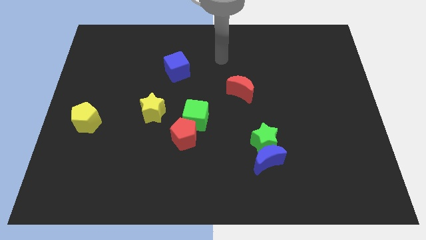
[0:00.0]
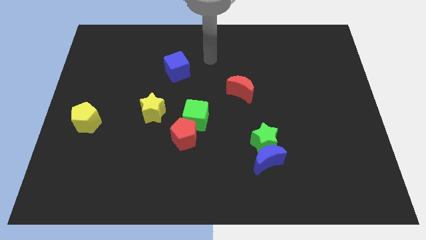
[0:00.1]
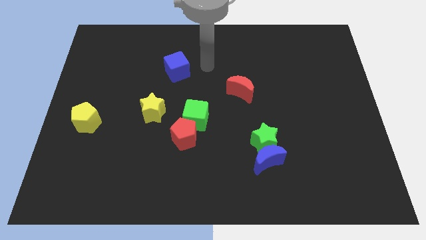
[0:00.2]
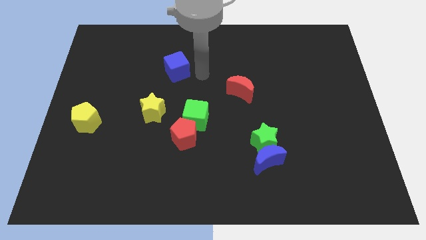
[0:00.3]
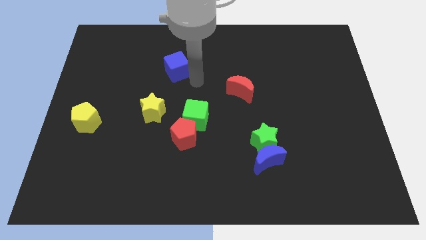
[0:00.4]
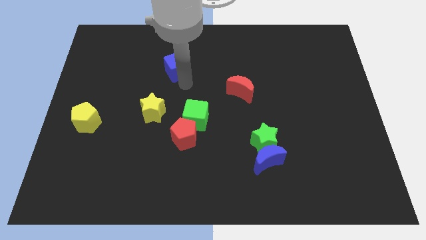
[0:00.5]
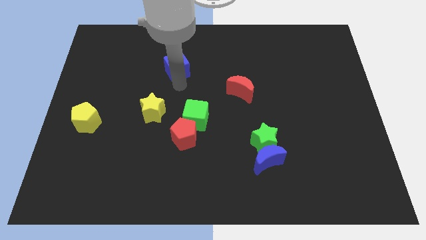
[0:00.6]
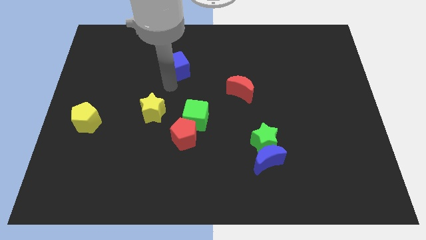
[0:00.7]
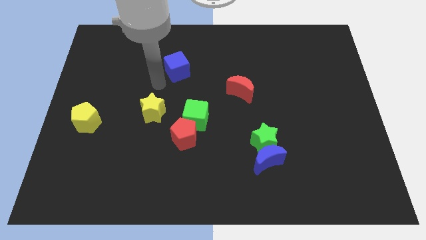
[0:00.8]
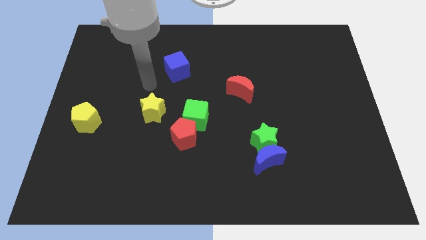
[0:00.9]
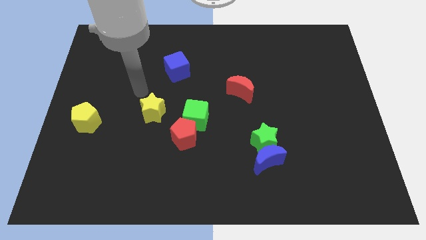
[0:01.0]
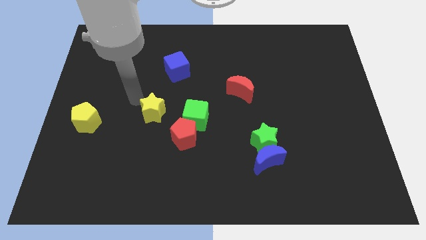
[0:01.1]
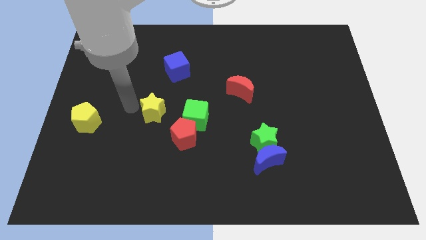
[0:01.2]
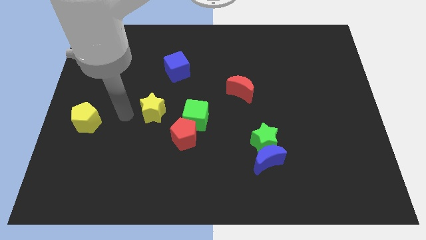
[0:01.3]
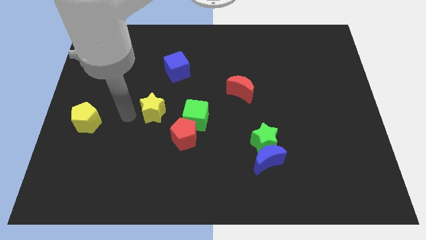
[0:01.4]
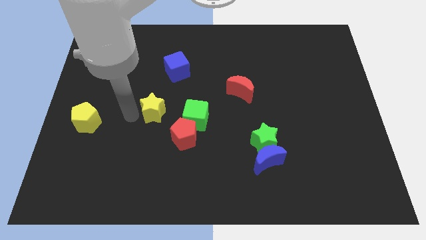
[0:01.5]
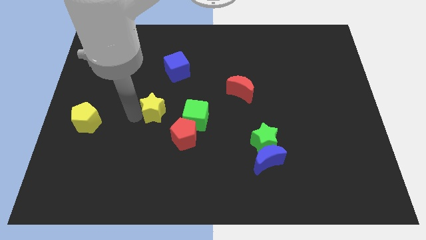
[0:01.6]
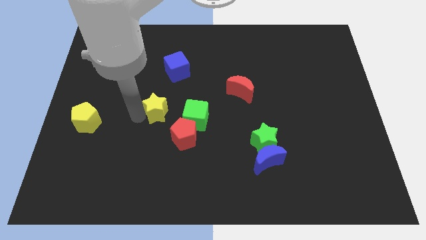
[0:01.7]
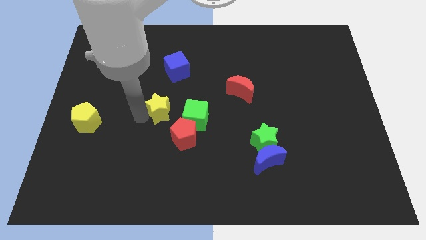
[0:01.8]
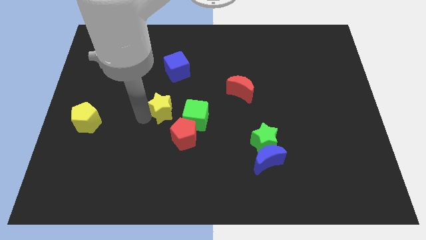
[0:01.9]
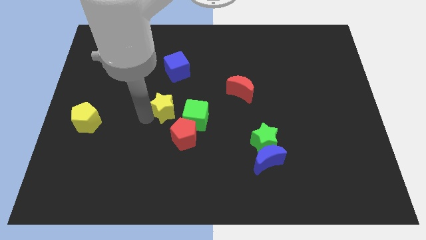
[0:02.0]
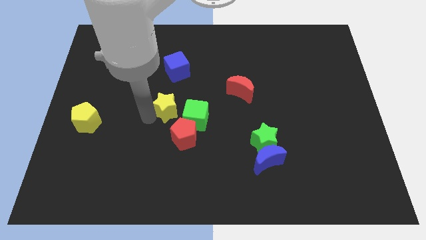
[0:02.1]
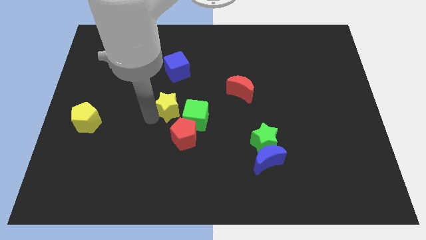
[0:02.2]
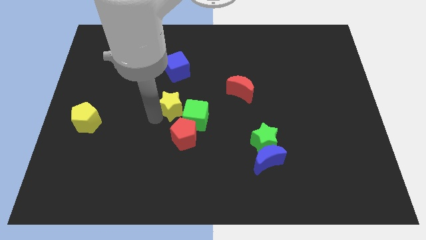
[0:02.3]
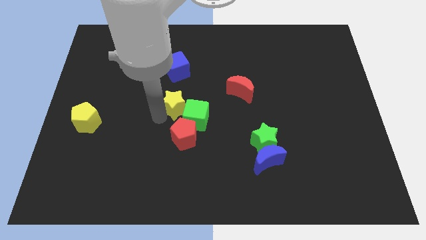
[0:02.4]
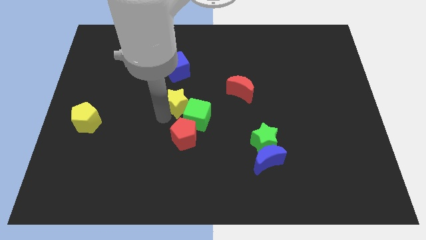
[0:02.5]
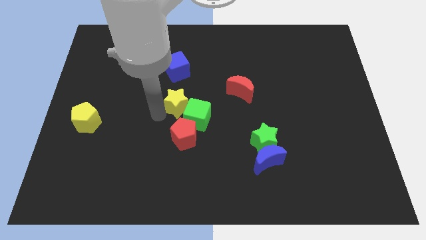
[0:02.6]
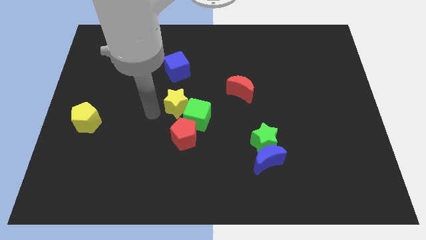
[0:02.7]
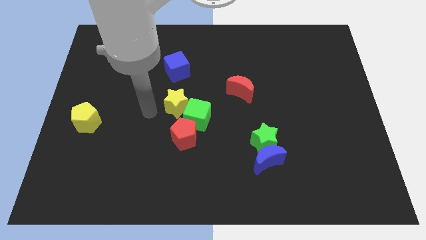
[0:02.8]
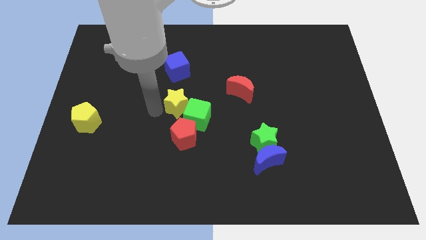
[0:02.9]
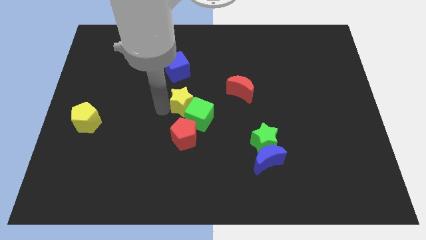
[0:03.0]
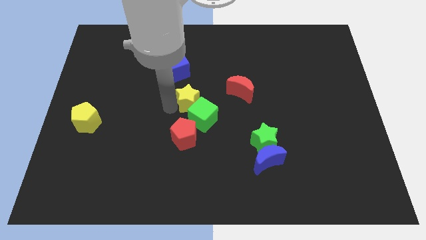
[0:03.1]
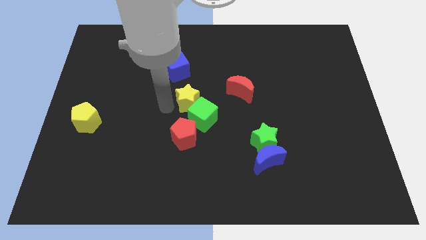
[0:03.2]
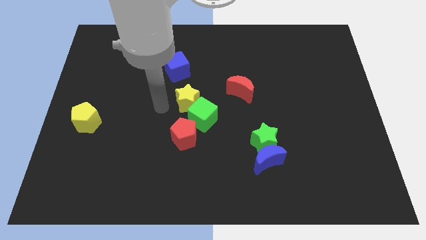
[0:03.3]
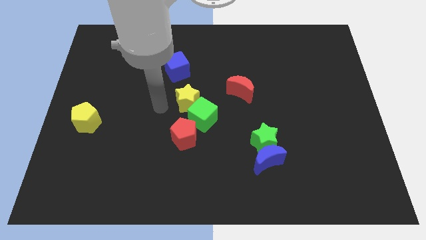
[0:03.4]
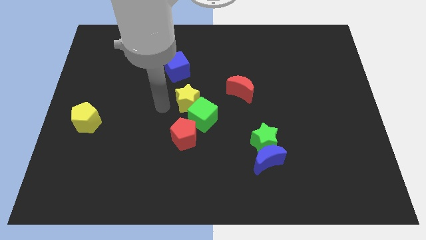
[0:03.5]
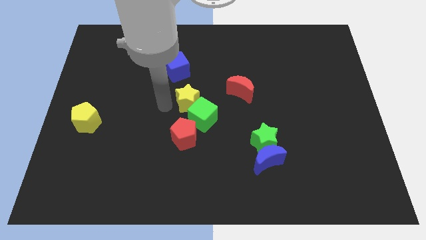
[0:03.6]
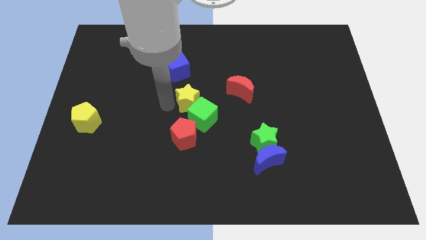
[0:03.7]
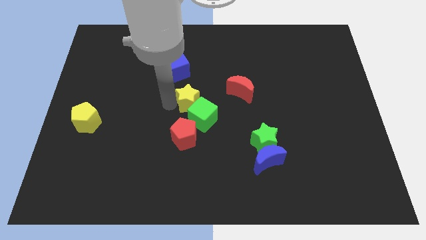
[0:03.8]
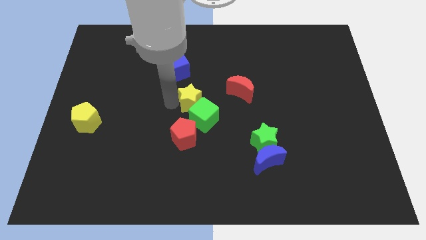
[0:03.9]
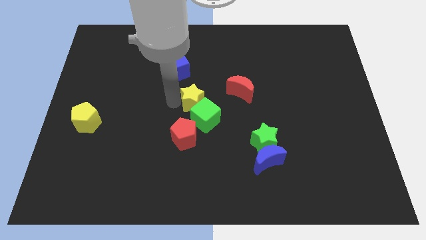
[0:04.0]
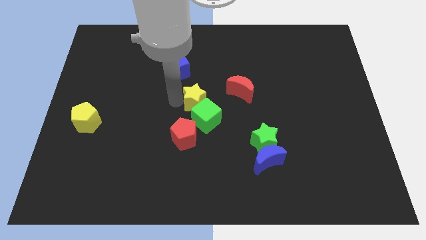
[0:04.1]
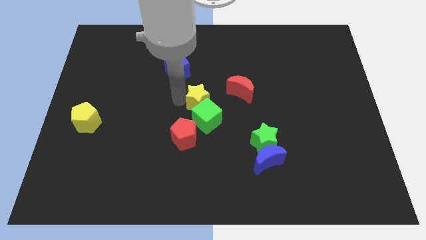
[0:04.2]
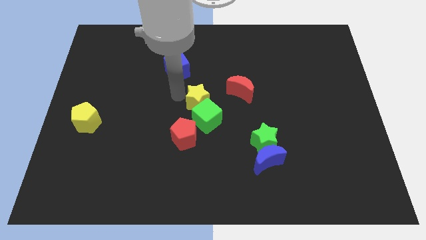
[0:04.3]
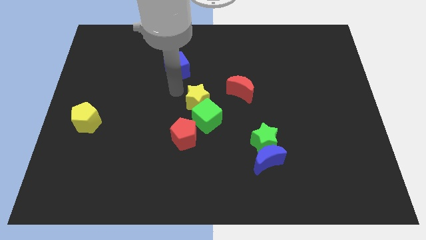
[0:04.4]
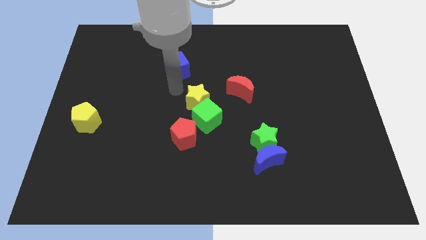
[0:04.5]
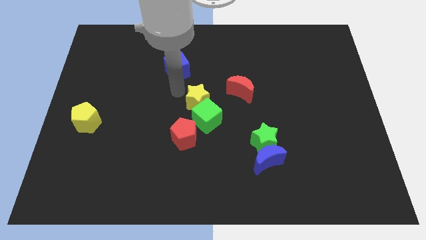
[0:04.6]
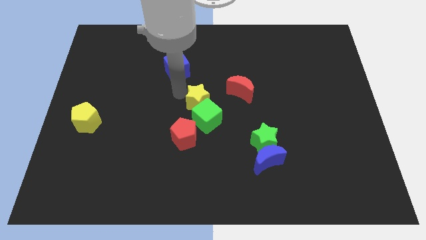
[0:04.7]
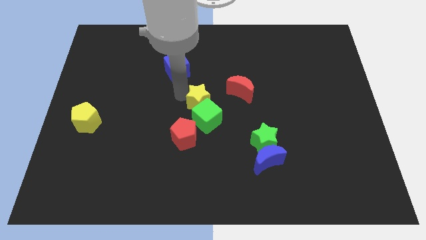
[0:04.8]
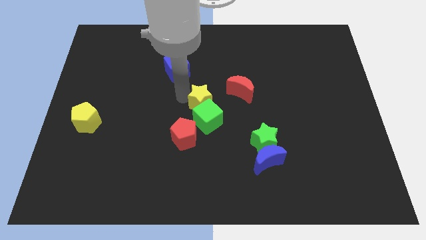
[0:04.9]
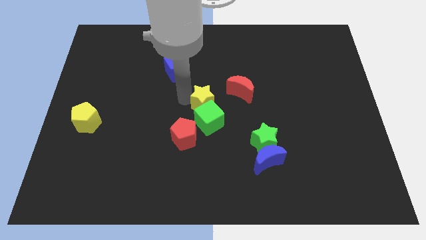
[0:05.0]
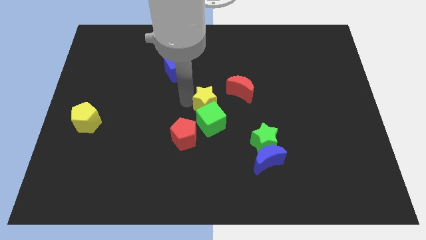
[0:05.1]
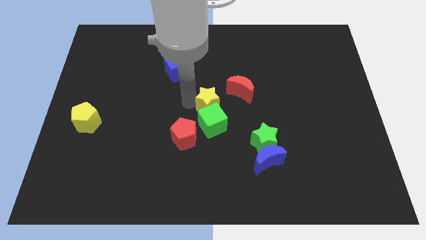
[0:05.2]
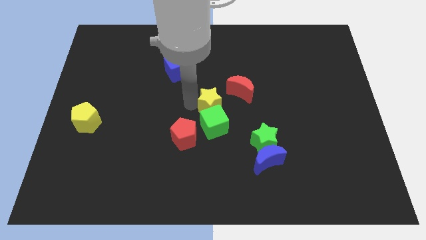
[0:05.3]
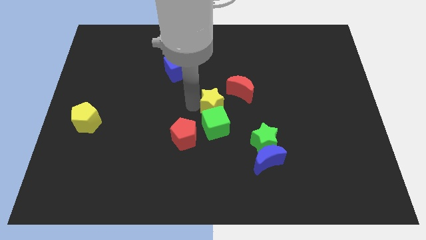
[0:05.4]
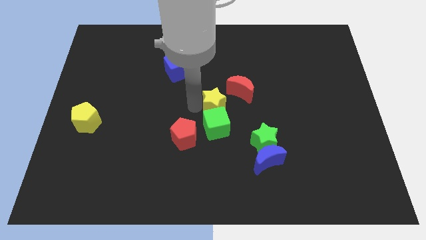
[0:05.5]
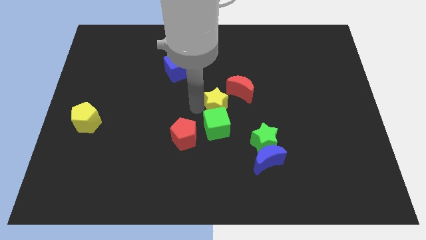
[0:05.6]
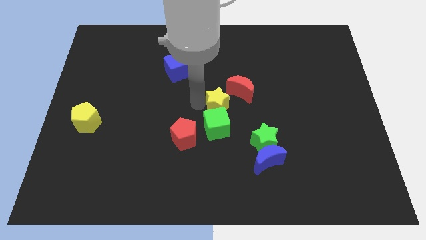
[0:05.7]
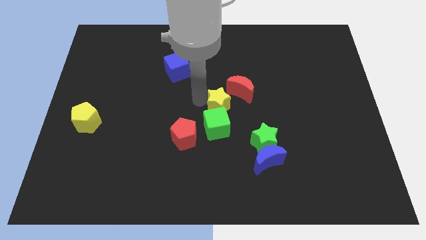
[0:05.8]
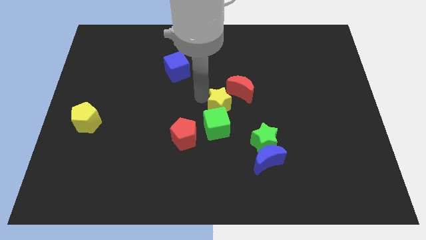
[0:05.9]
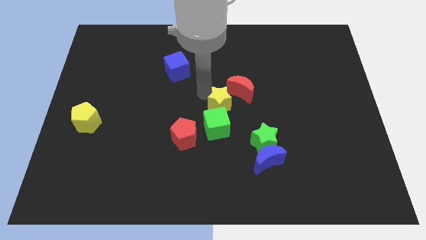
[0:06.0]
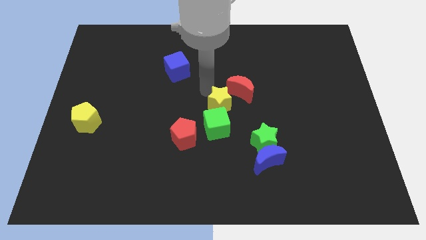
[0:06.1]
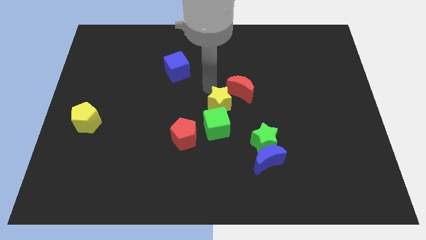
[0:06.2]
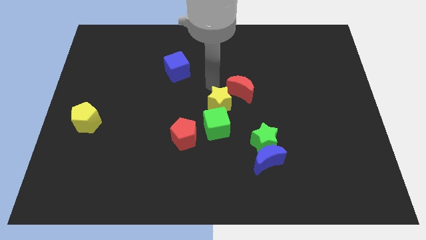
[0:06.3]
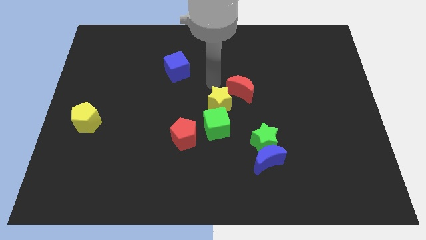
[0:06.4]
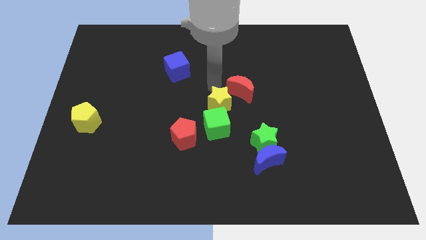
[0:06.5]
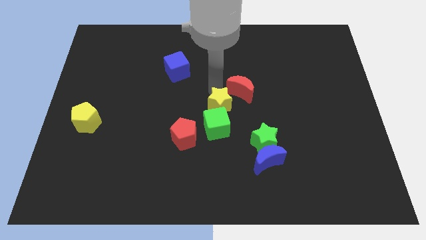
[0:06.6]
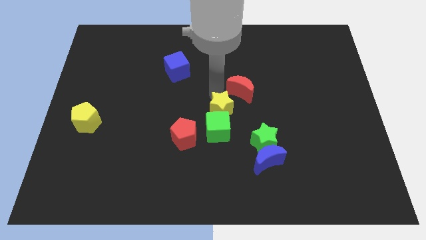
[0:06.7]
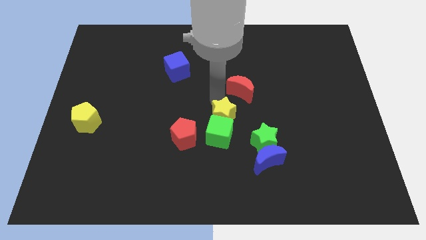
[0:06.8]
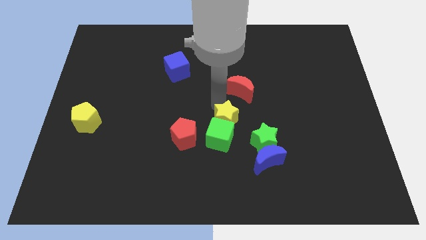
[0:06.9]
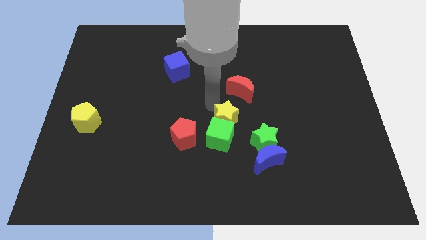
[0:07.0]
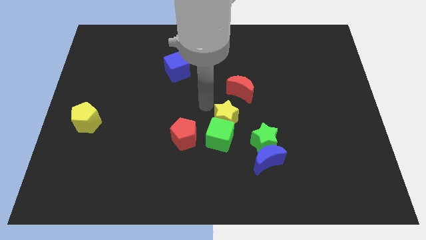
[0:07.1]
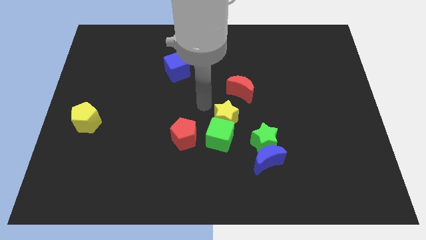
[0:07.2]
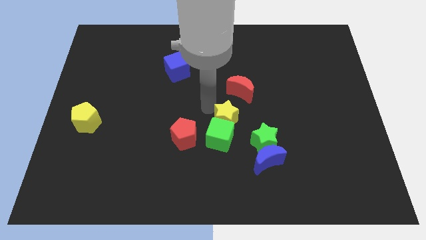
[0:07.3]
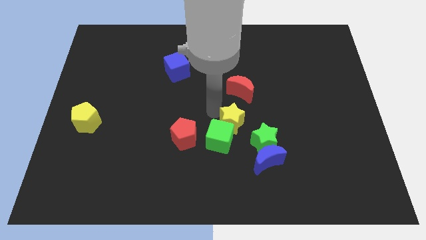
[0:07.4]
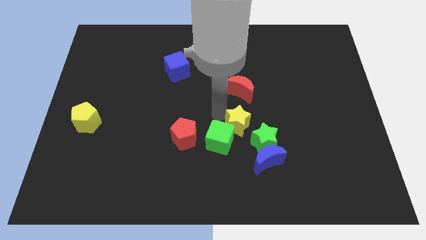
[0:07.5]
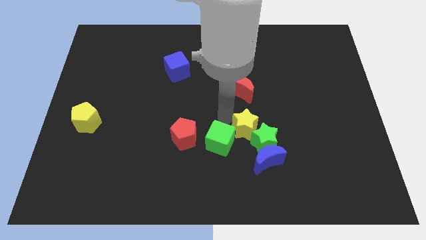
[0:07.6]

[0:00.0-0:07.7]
move the yellow star close to the green star
